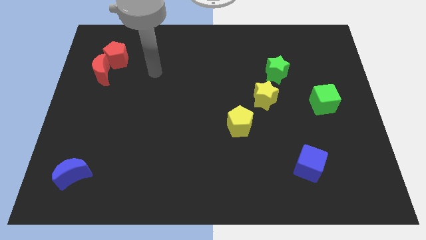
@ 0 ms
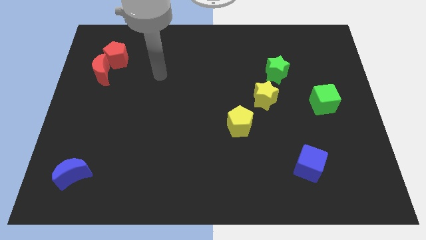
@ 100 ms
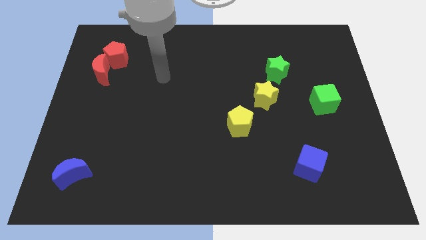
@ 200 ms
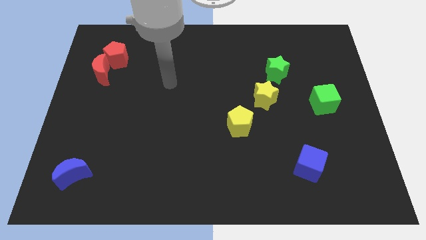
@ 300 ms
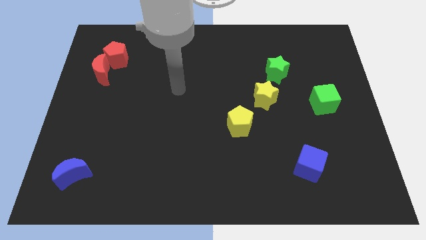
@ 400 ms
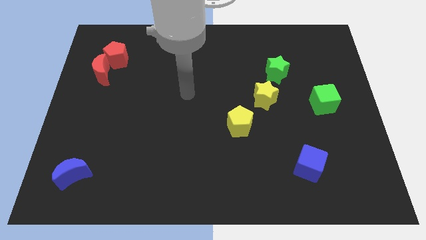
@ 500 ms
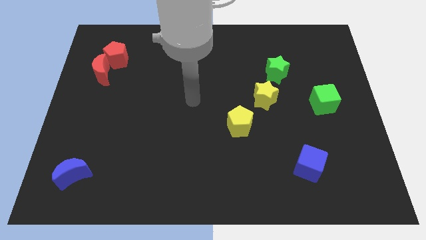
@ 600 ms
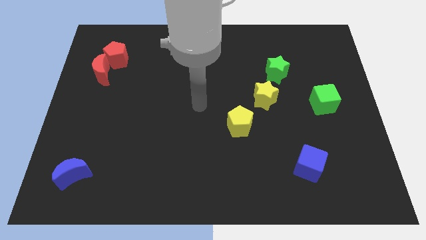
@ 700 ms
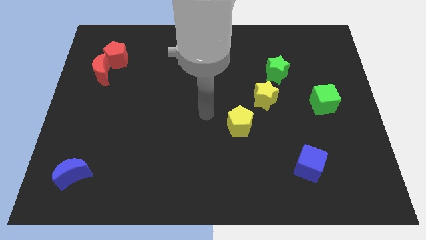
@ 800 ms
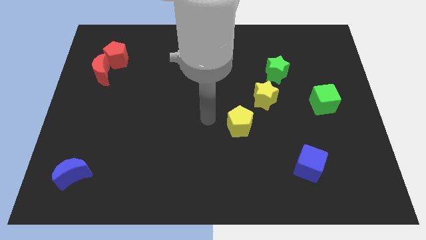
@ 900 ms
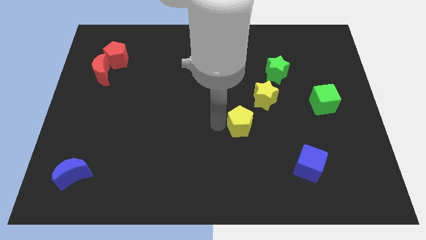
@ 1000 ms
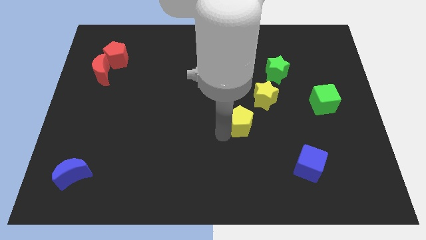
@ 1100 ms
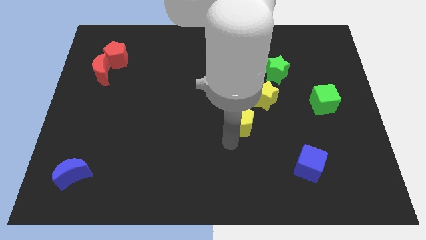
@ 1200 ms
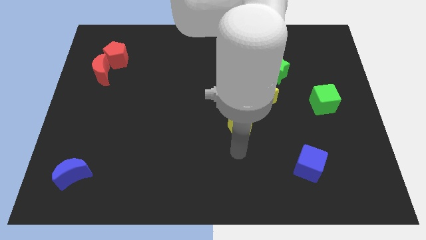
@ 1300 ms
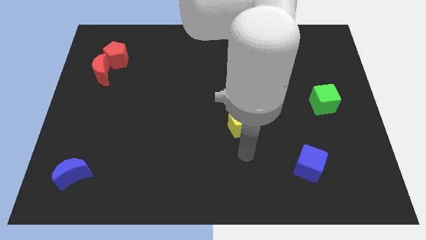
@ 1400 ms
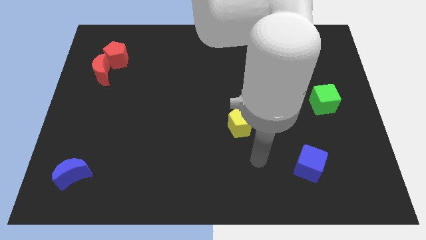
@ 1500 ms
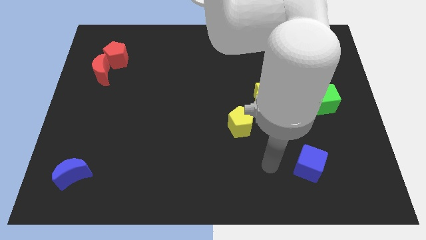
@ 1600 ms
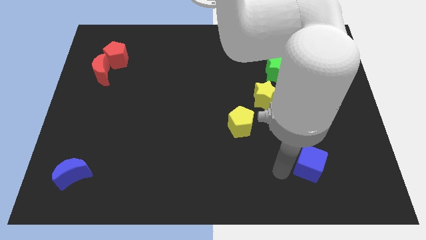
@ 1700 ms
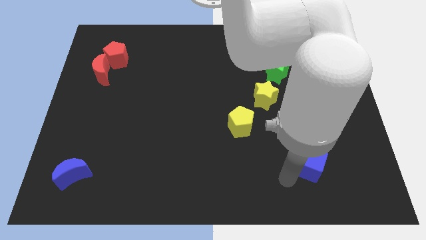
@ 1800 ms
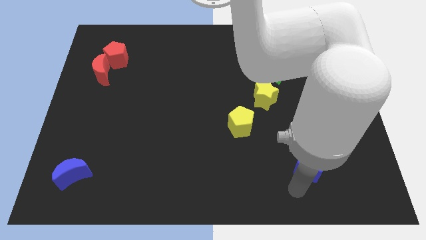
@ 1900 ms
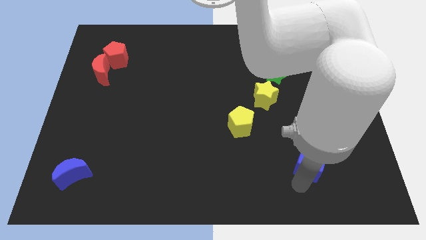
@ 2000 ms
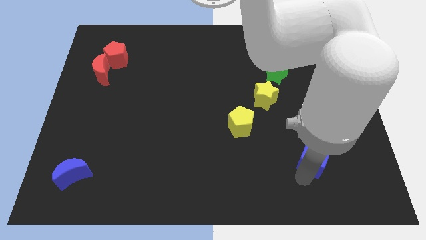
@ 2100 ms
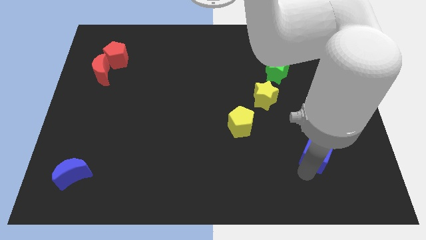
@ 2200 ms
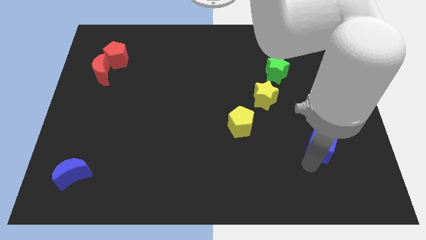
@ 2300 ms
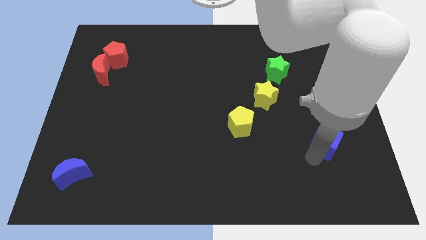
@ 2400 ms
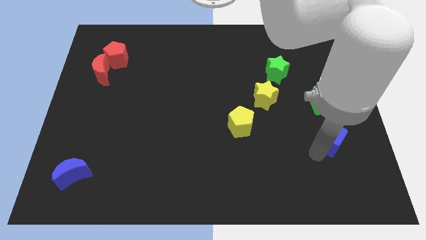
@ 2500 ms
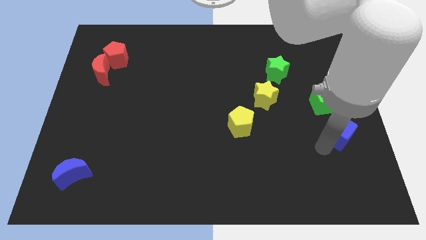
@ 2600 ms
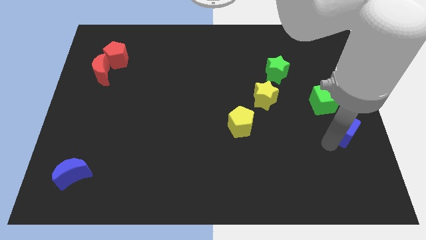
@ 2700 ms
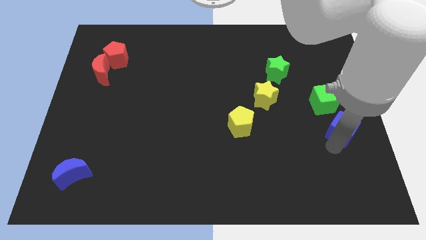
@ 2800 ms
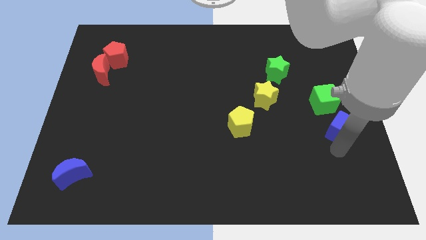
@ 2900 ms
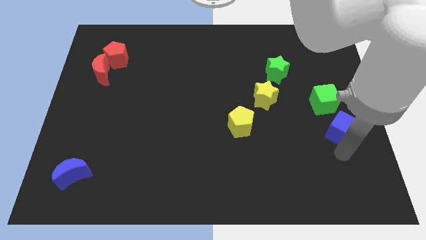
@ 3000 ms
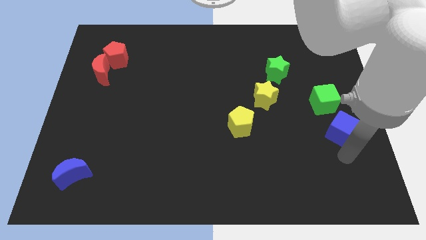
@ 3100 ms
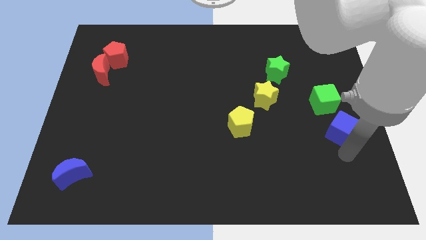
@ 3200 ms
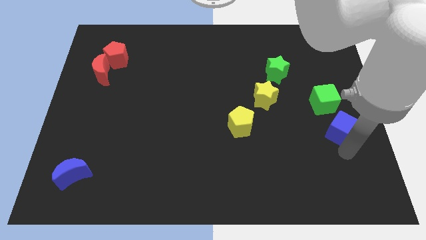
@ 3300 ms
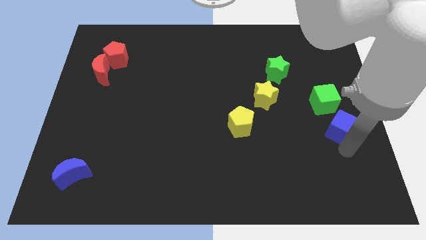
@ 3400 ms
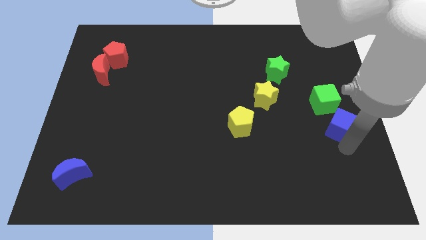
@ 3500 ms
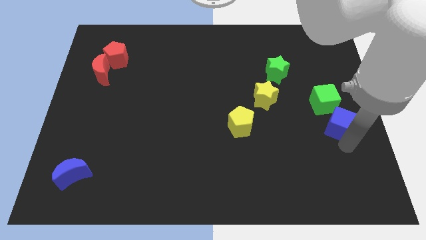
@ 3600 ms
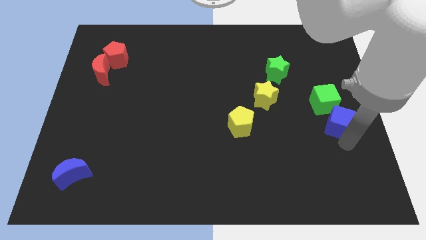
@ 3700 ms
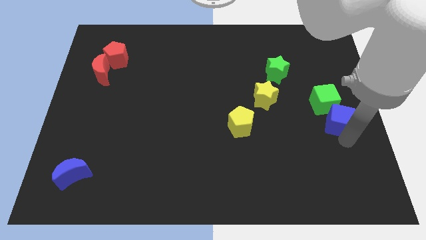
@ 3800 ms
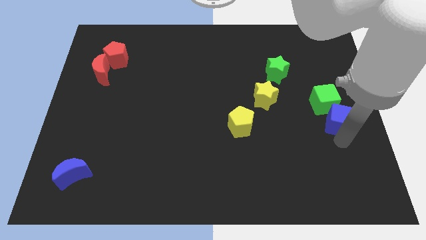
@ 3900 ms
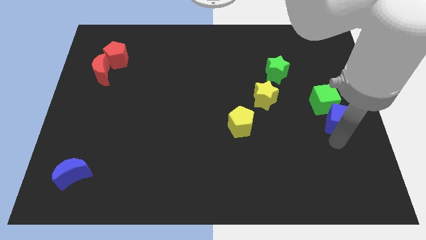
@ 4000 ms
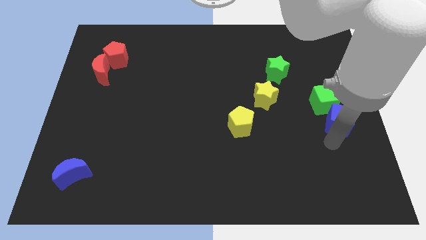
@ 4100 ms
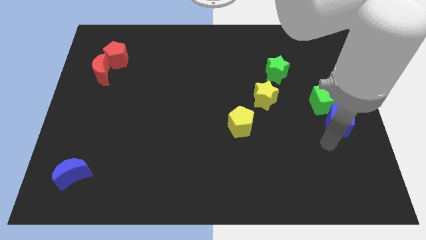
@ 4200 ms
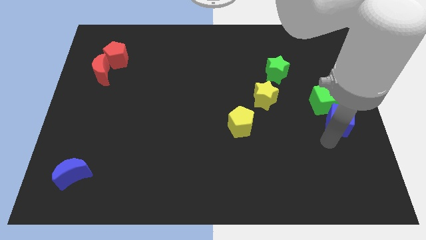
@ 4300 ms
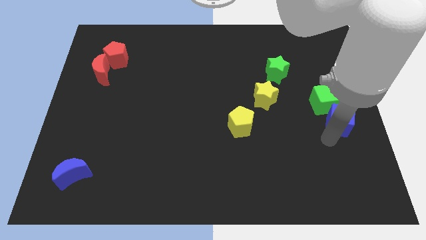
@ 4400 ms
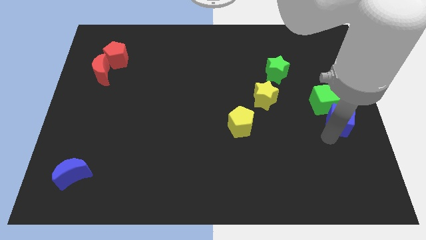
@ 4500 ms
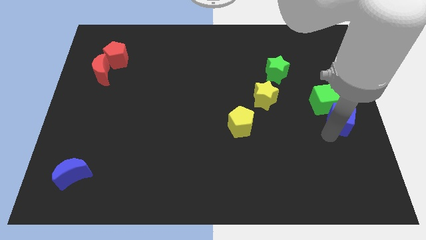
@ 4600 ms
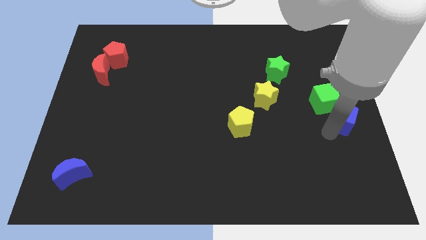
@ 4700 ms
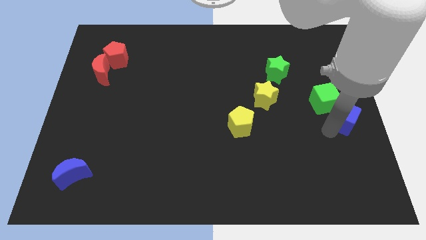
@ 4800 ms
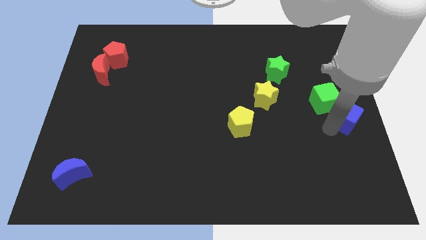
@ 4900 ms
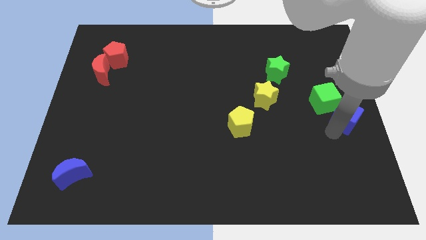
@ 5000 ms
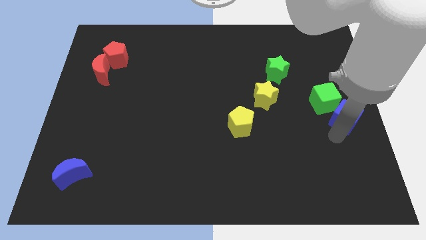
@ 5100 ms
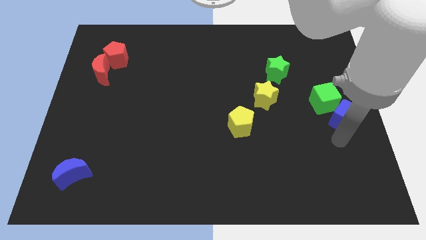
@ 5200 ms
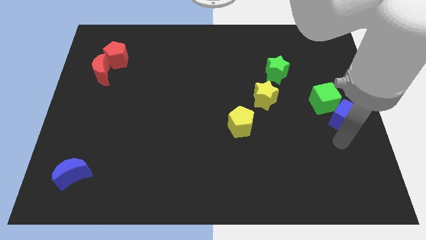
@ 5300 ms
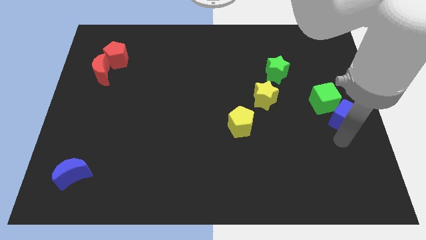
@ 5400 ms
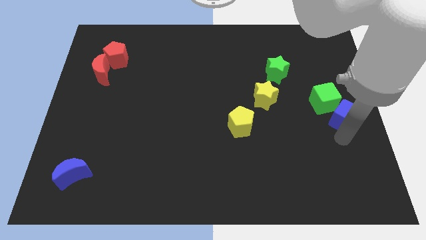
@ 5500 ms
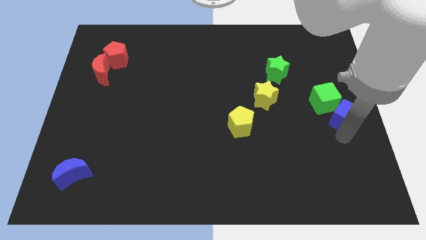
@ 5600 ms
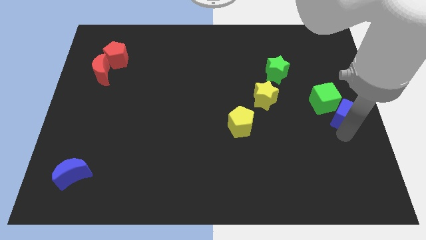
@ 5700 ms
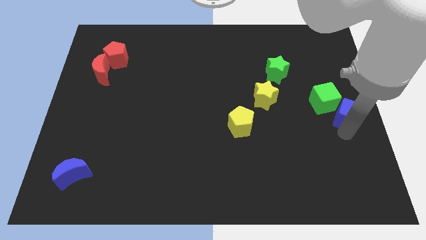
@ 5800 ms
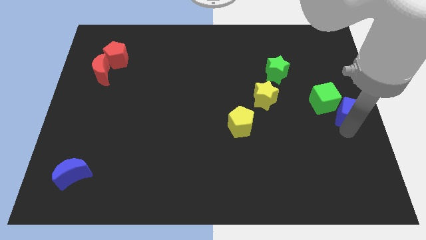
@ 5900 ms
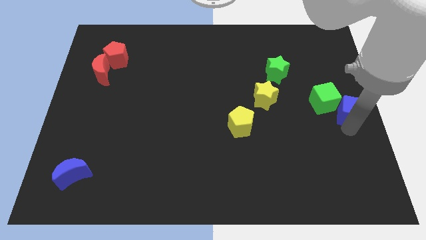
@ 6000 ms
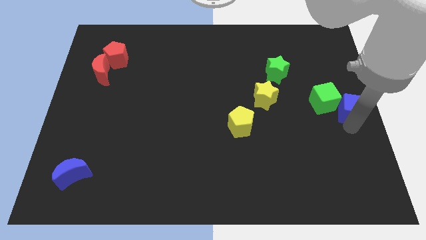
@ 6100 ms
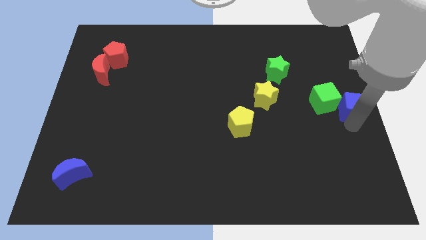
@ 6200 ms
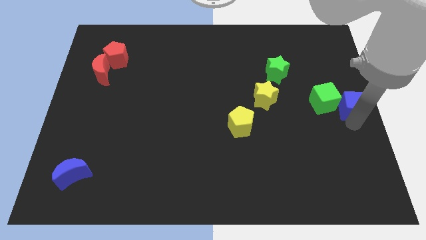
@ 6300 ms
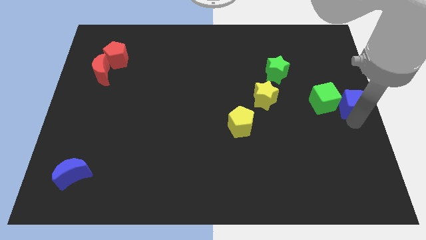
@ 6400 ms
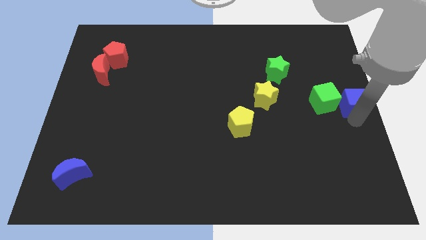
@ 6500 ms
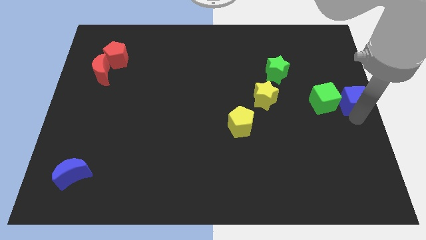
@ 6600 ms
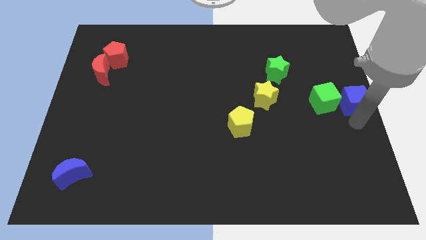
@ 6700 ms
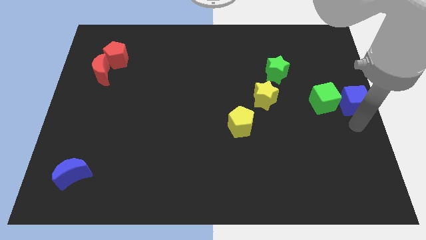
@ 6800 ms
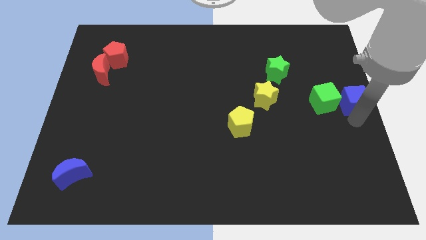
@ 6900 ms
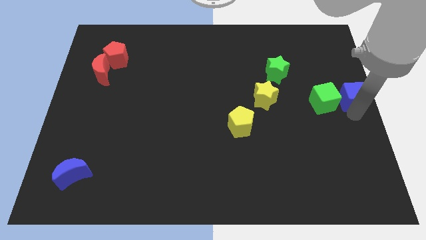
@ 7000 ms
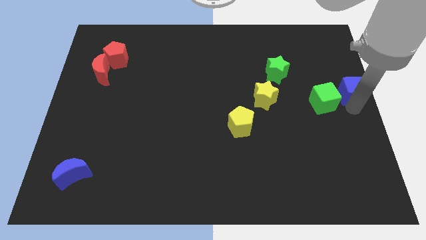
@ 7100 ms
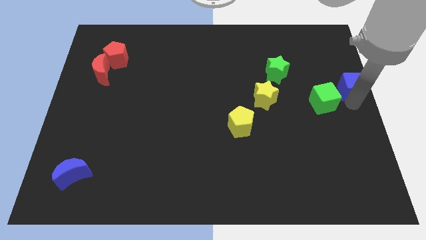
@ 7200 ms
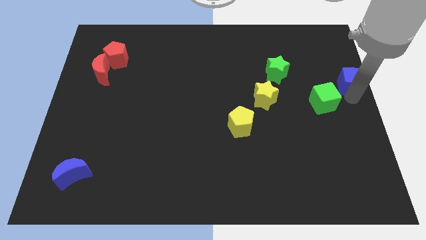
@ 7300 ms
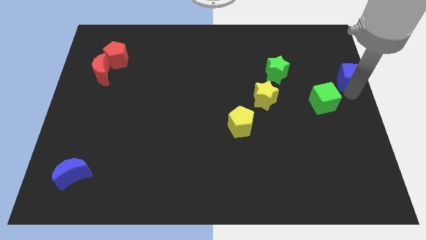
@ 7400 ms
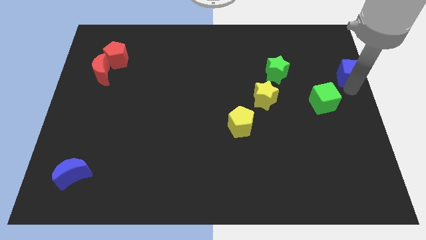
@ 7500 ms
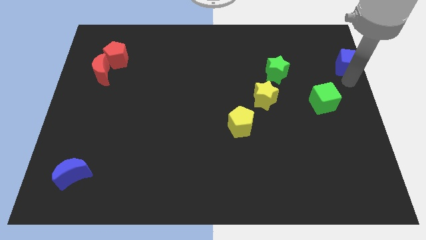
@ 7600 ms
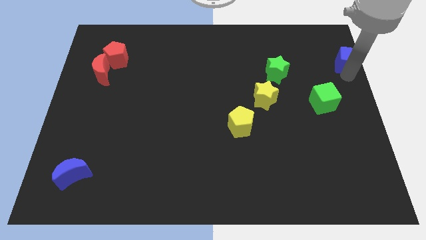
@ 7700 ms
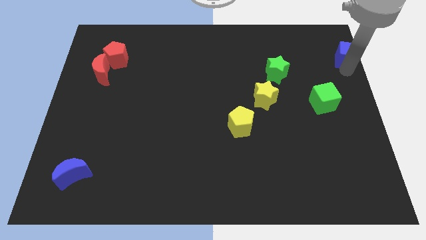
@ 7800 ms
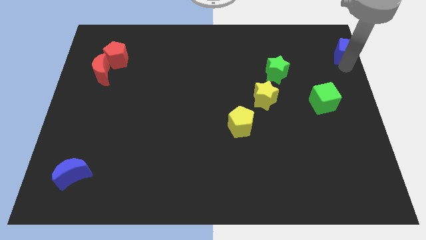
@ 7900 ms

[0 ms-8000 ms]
push the blue cube to the top right of the board
